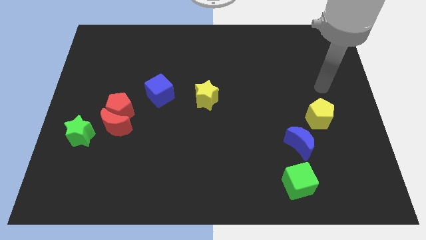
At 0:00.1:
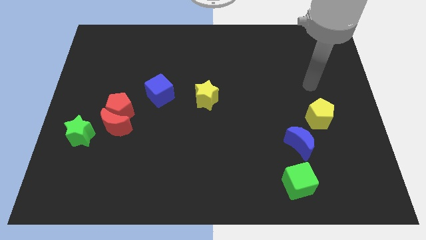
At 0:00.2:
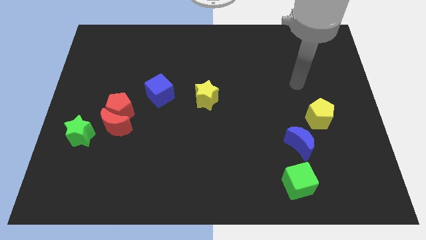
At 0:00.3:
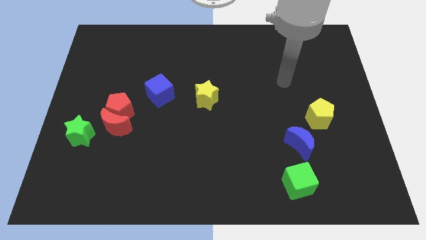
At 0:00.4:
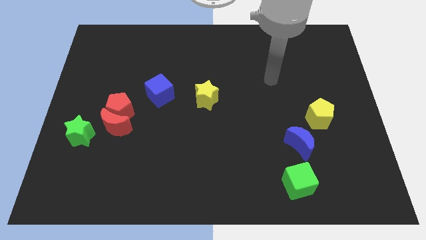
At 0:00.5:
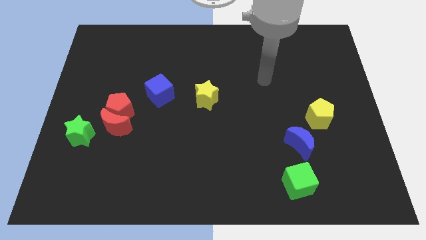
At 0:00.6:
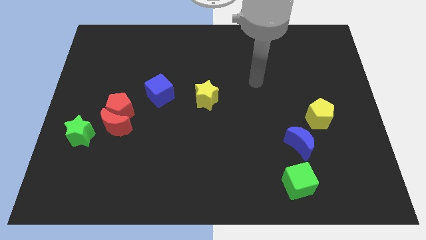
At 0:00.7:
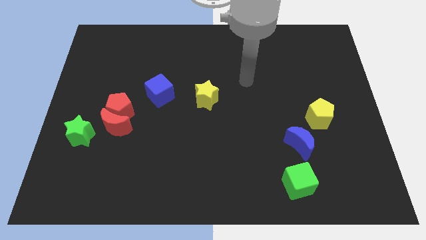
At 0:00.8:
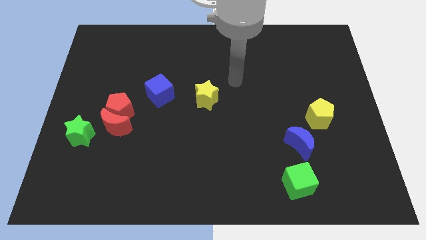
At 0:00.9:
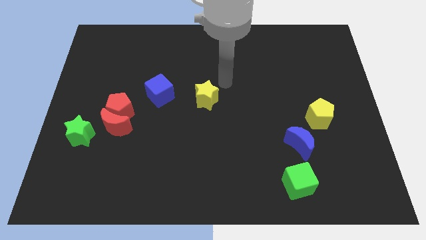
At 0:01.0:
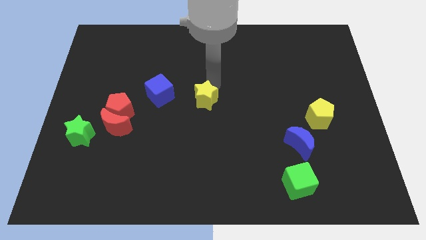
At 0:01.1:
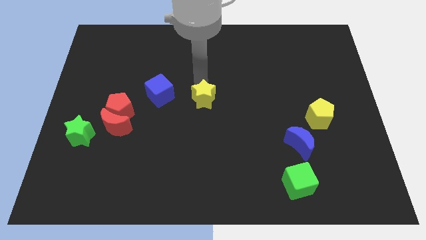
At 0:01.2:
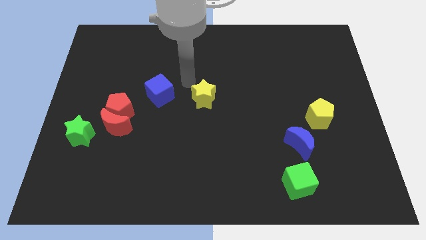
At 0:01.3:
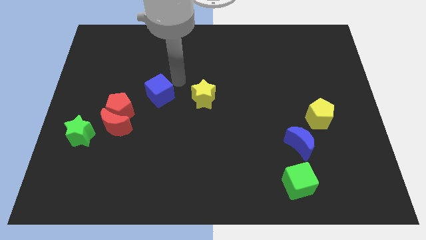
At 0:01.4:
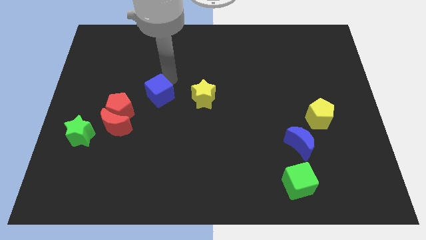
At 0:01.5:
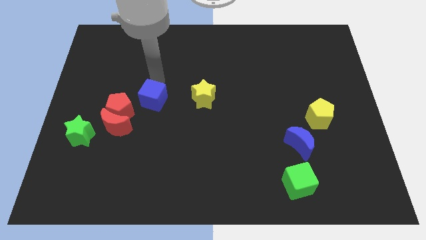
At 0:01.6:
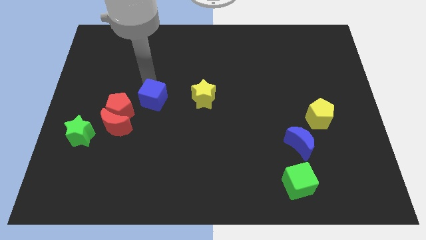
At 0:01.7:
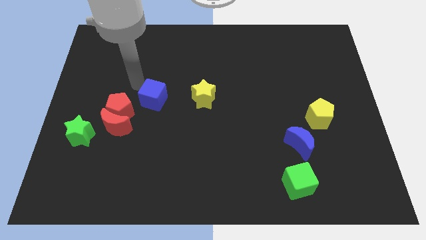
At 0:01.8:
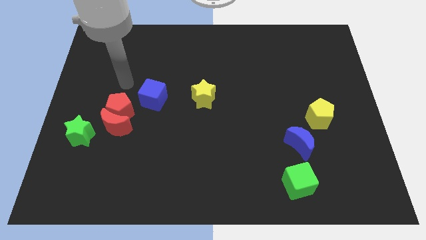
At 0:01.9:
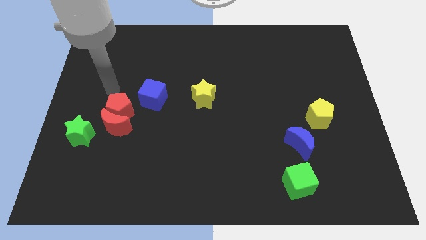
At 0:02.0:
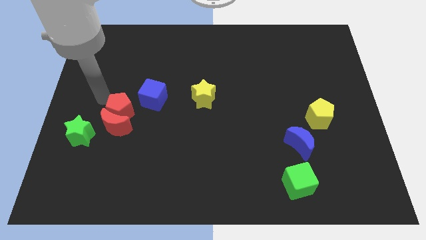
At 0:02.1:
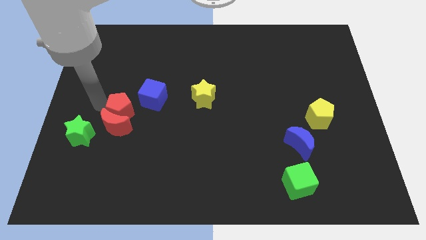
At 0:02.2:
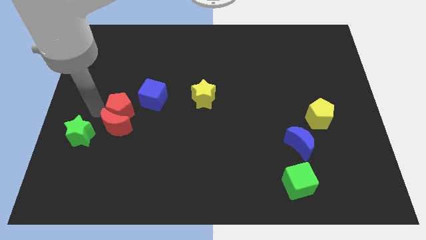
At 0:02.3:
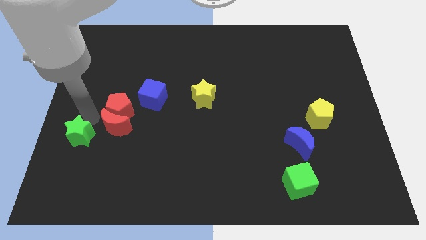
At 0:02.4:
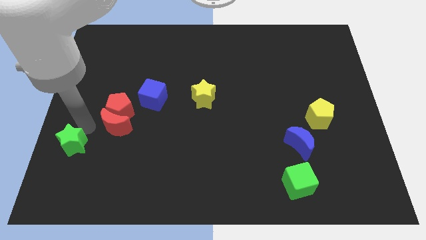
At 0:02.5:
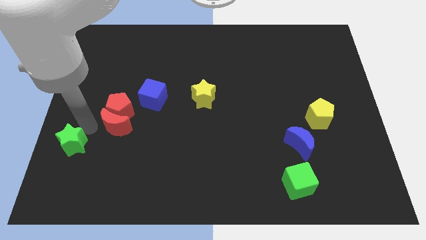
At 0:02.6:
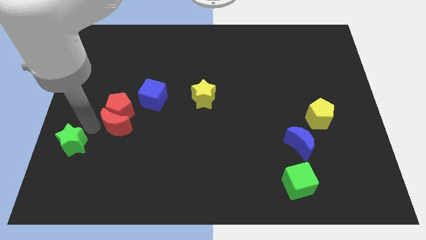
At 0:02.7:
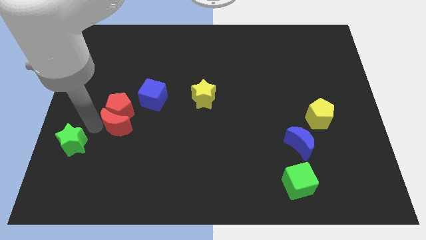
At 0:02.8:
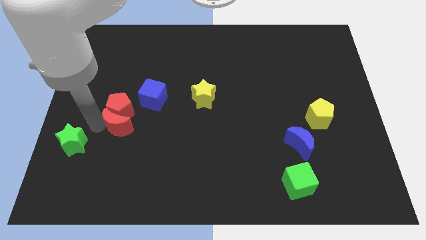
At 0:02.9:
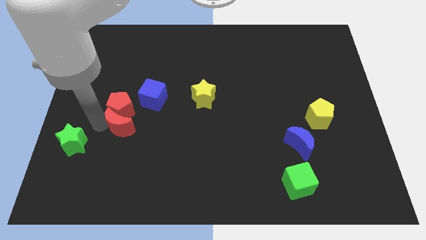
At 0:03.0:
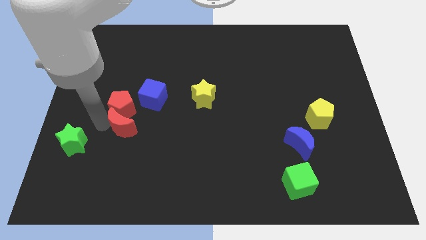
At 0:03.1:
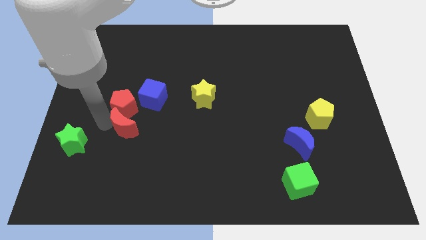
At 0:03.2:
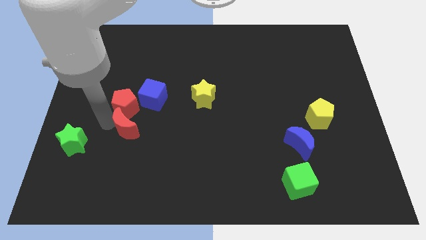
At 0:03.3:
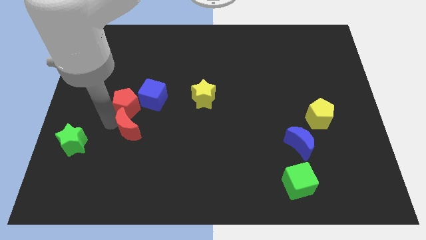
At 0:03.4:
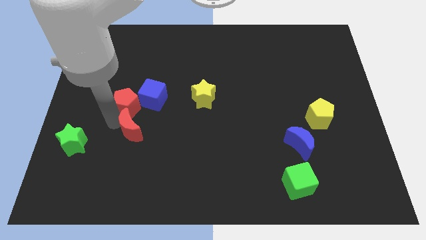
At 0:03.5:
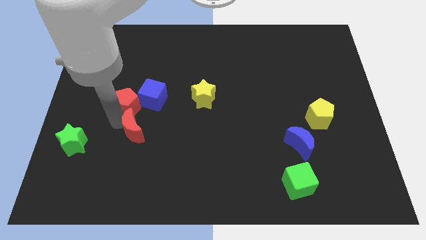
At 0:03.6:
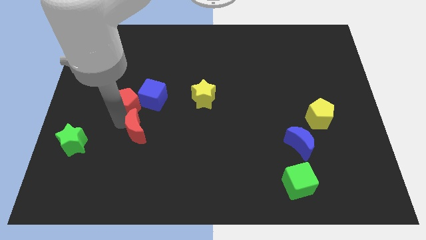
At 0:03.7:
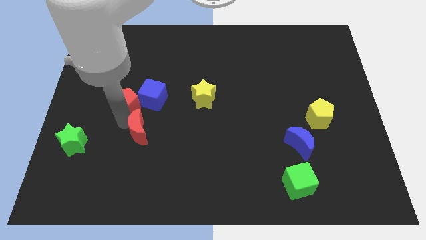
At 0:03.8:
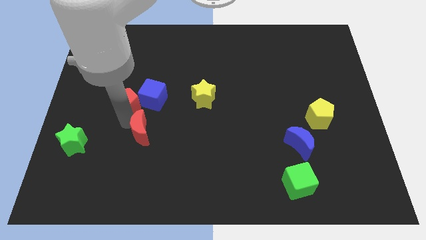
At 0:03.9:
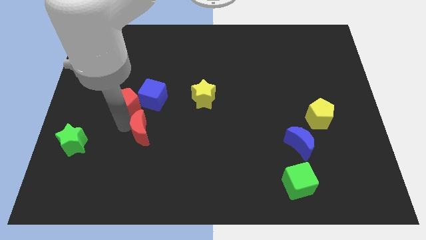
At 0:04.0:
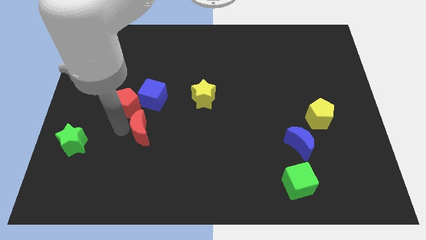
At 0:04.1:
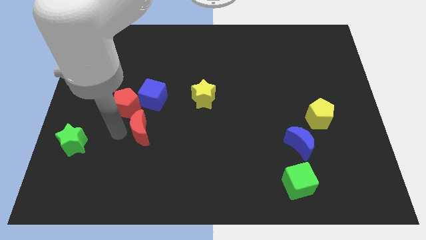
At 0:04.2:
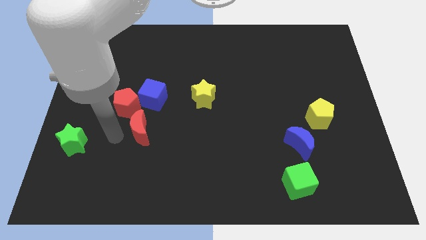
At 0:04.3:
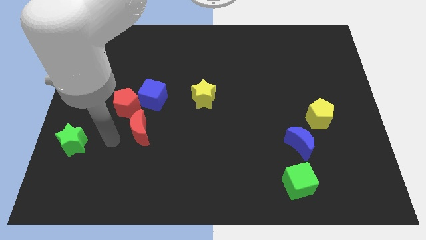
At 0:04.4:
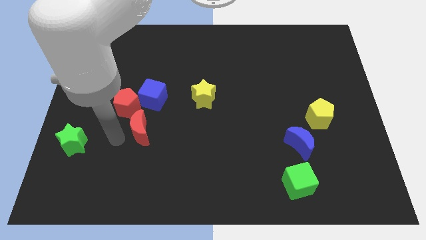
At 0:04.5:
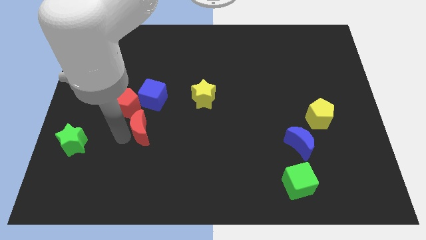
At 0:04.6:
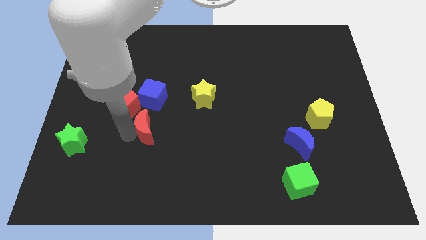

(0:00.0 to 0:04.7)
slightly move the red moon to the right

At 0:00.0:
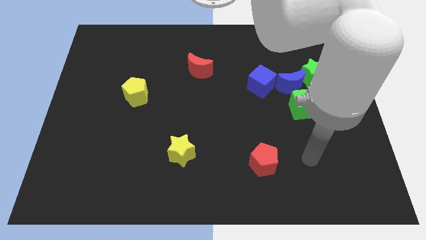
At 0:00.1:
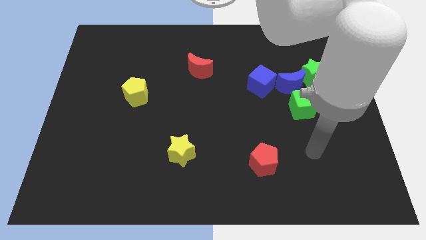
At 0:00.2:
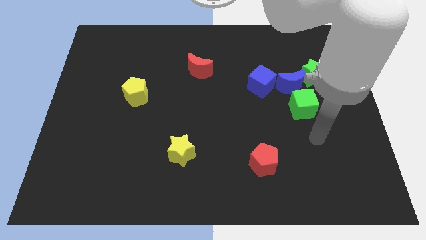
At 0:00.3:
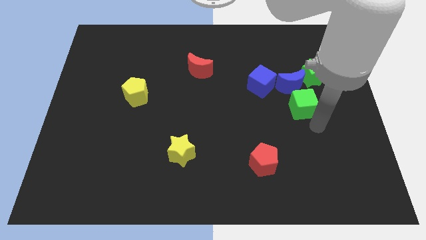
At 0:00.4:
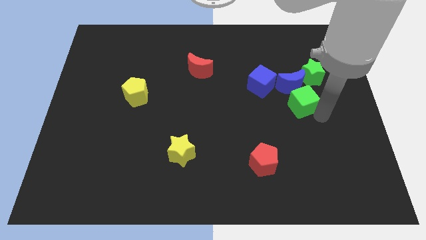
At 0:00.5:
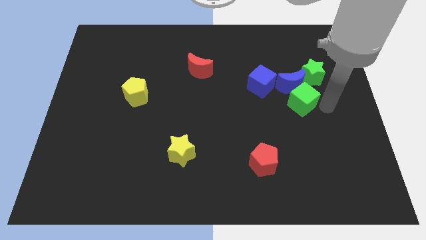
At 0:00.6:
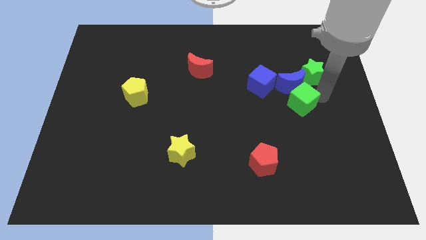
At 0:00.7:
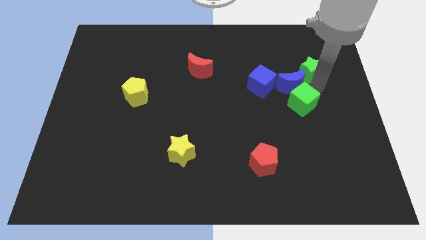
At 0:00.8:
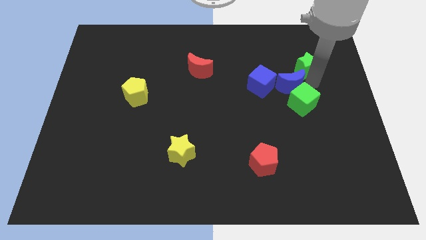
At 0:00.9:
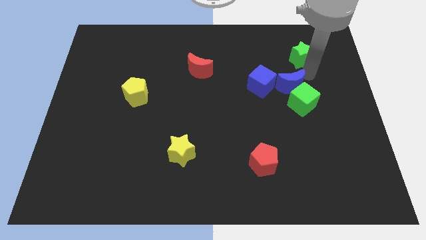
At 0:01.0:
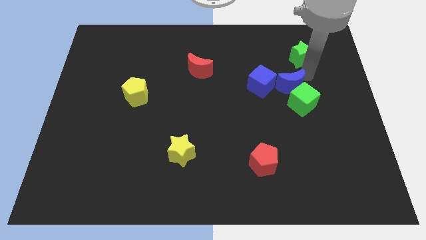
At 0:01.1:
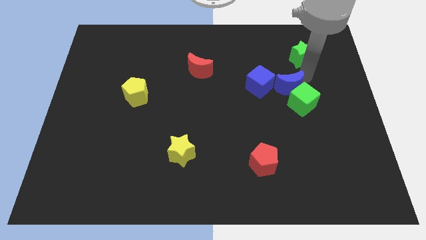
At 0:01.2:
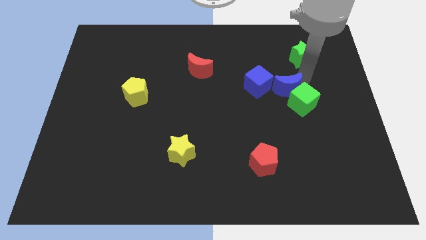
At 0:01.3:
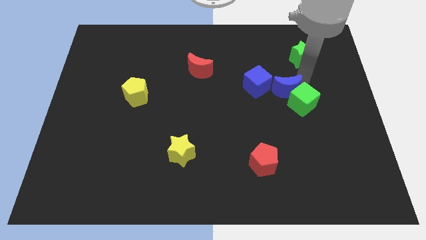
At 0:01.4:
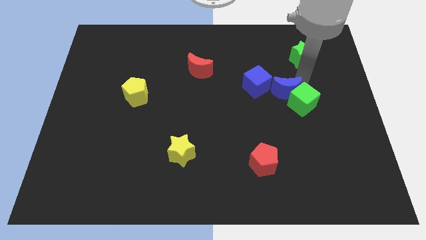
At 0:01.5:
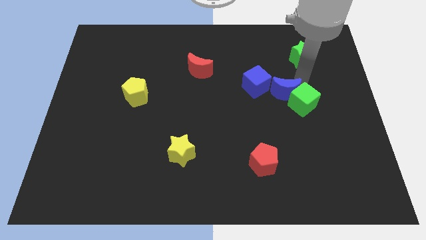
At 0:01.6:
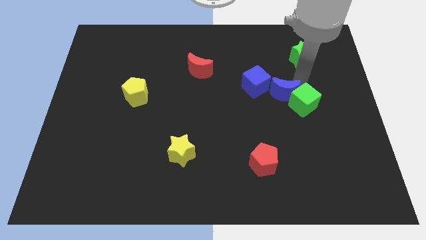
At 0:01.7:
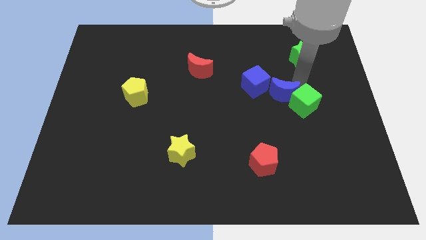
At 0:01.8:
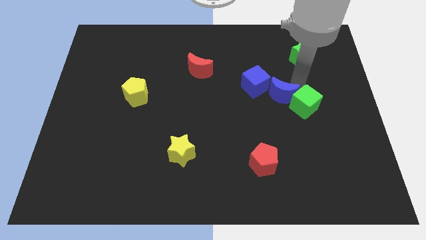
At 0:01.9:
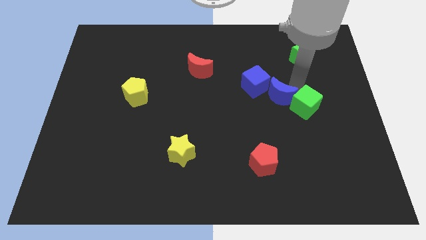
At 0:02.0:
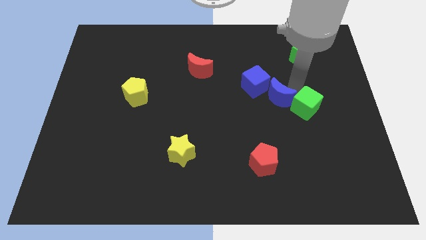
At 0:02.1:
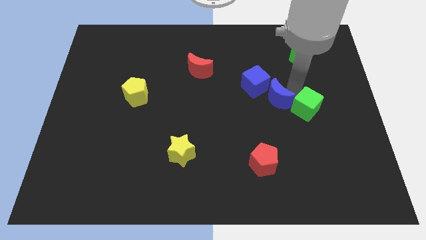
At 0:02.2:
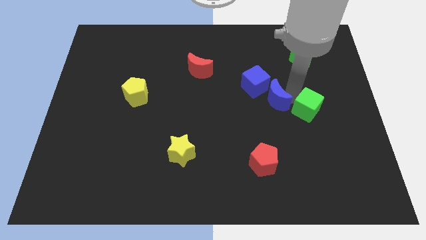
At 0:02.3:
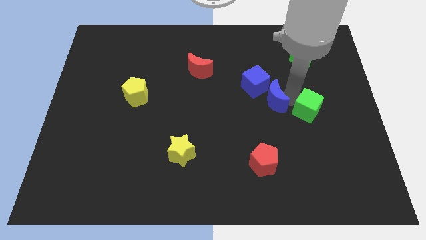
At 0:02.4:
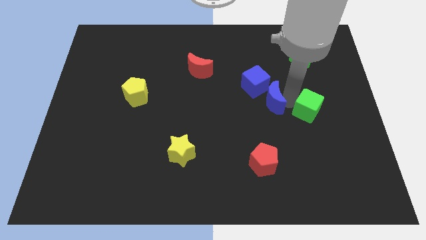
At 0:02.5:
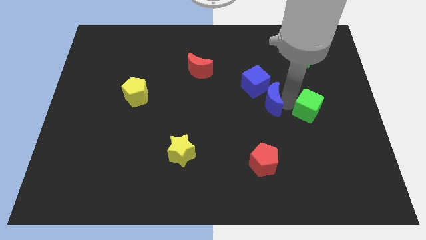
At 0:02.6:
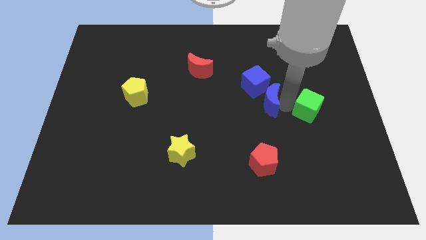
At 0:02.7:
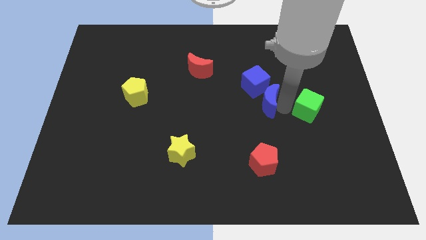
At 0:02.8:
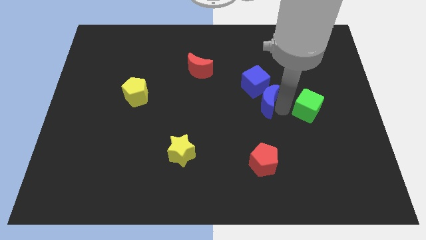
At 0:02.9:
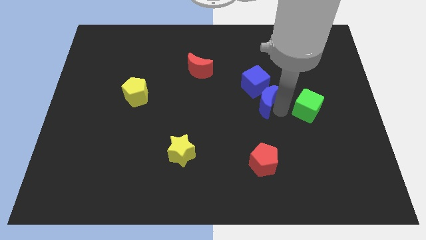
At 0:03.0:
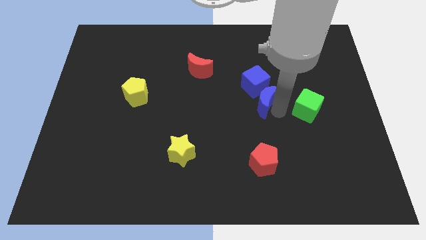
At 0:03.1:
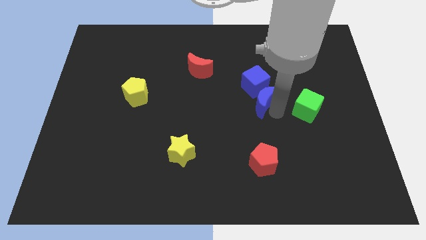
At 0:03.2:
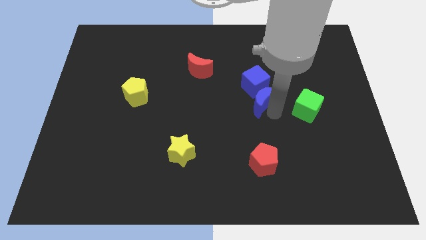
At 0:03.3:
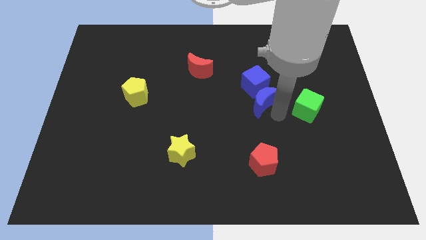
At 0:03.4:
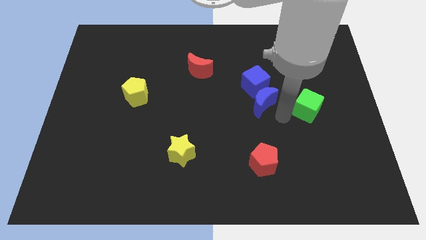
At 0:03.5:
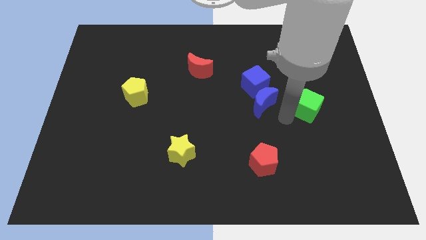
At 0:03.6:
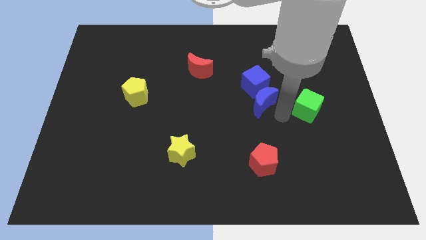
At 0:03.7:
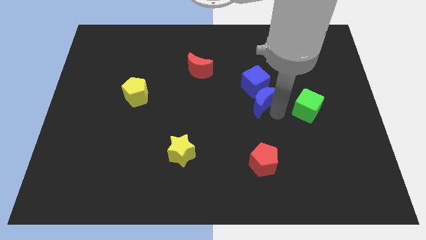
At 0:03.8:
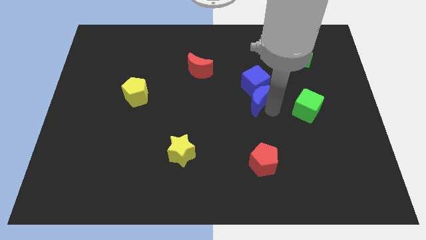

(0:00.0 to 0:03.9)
slide the blue moon a little to the left
